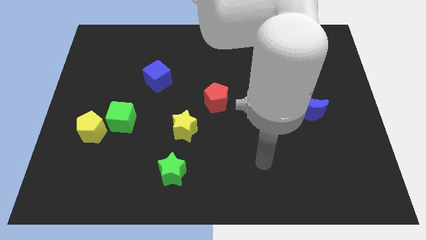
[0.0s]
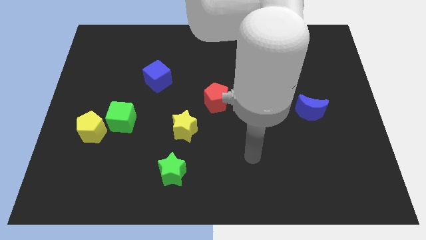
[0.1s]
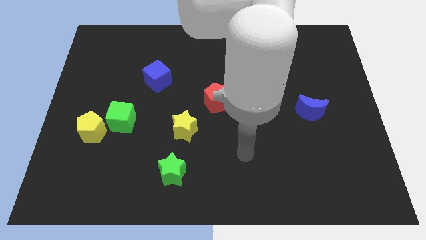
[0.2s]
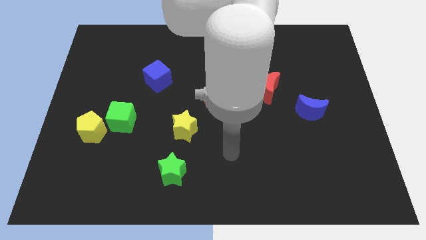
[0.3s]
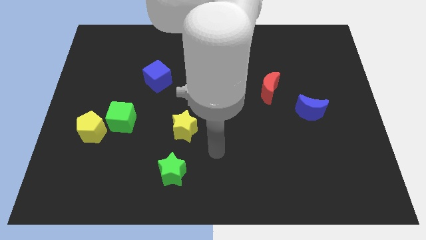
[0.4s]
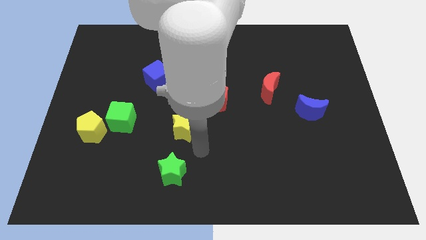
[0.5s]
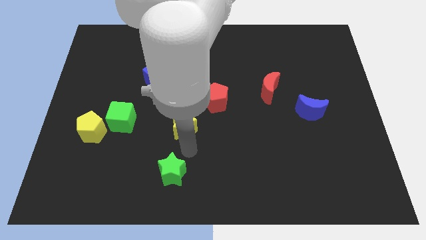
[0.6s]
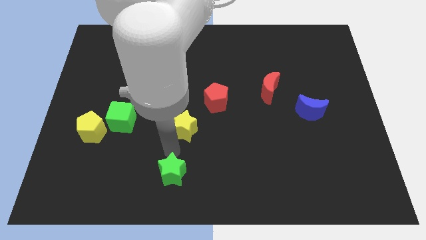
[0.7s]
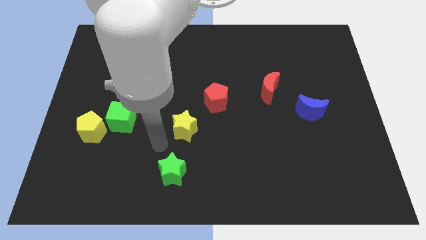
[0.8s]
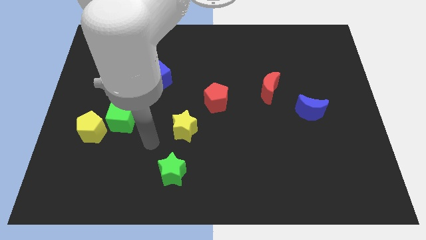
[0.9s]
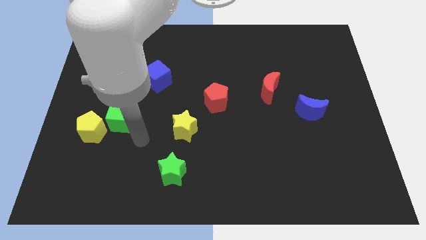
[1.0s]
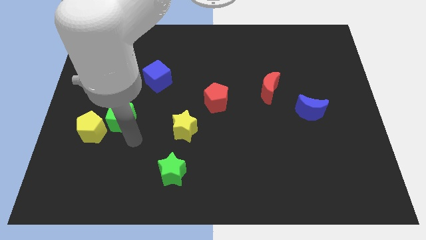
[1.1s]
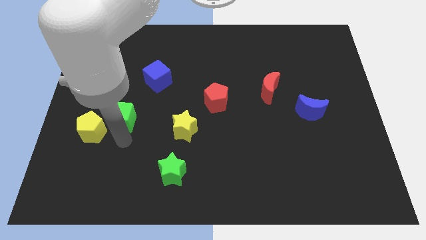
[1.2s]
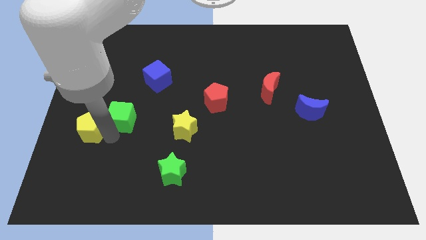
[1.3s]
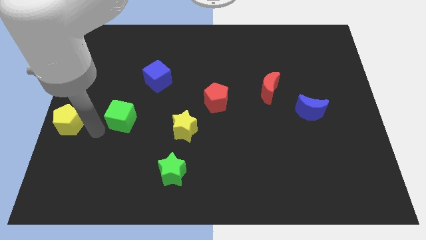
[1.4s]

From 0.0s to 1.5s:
pull the green cube apart from the yellow pentagon

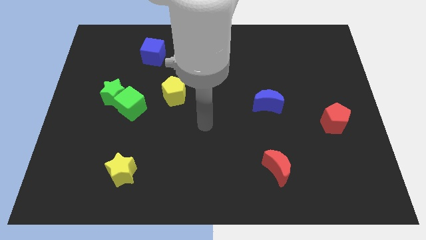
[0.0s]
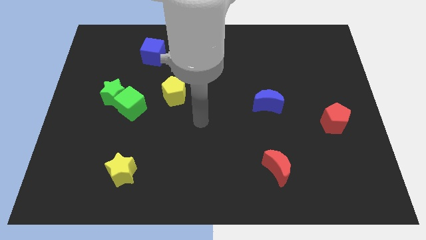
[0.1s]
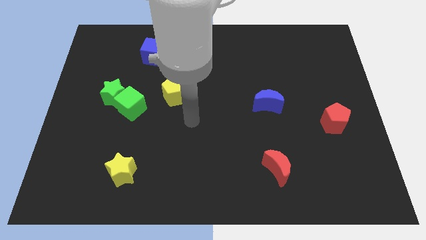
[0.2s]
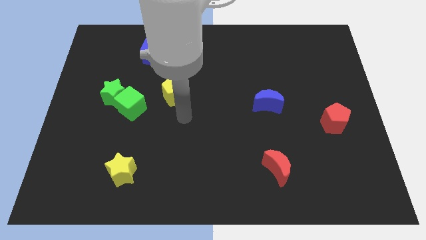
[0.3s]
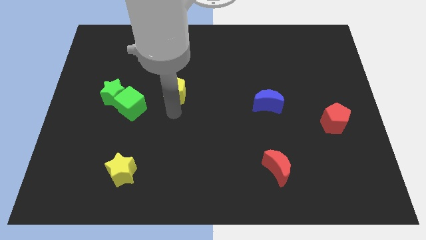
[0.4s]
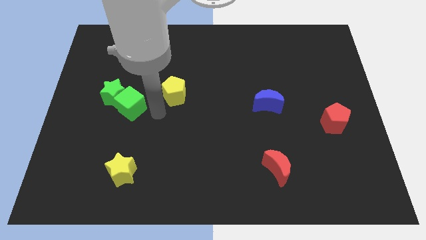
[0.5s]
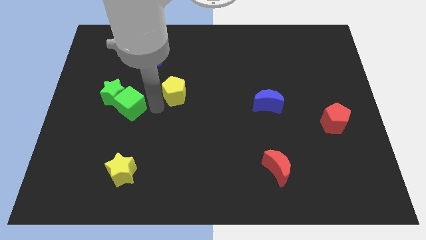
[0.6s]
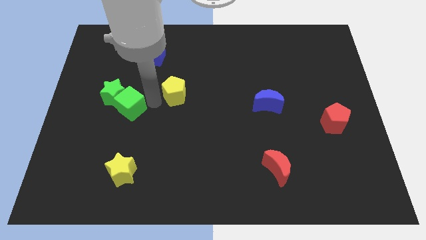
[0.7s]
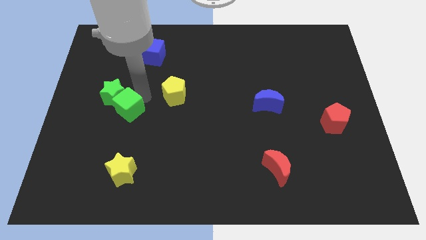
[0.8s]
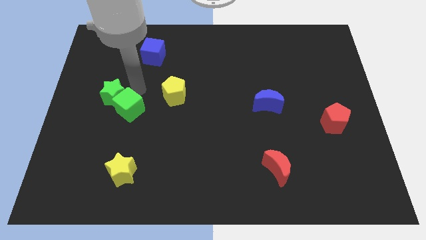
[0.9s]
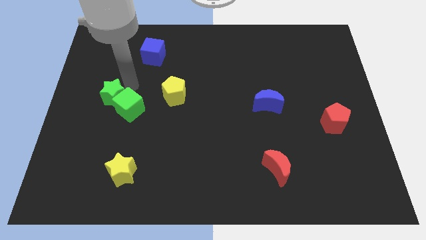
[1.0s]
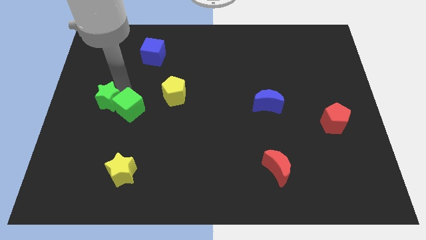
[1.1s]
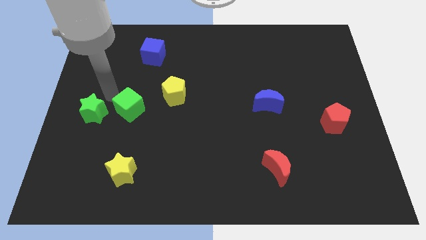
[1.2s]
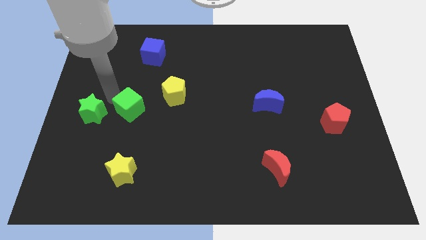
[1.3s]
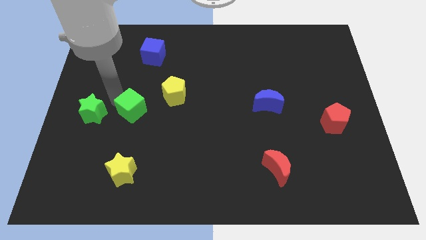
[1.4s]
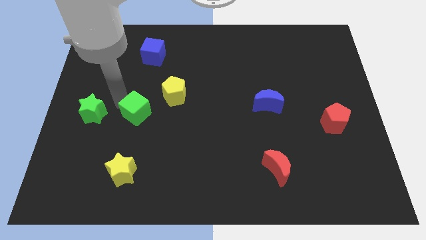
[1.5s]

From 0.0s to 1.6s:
separate the green cube from the green star

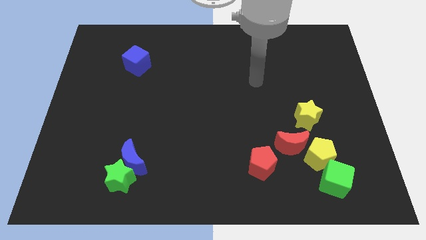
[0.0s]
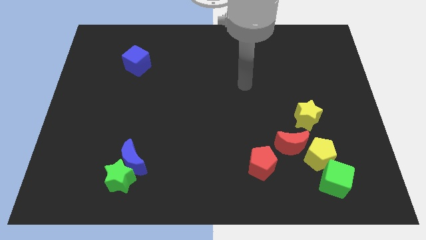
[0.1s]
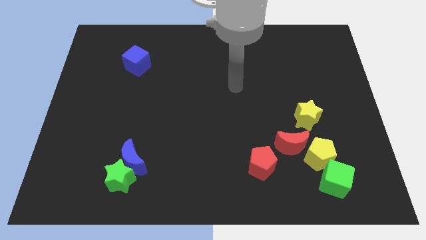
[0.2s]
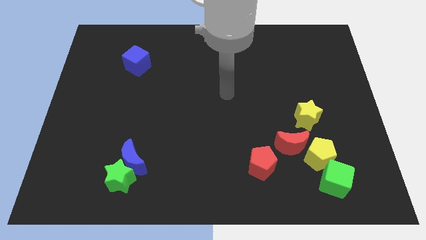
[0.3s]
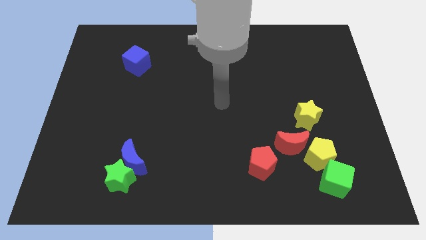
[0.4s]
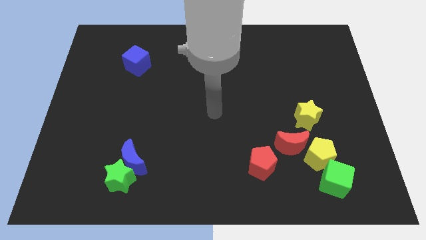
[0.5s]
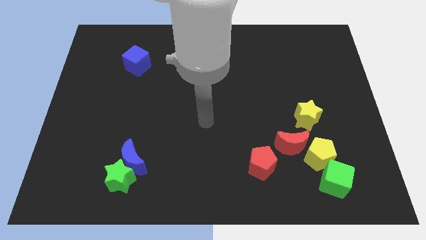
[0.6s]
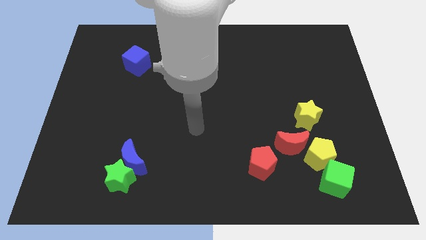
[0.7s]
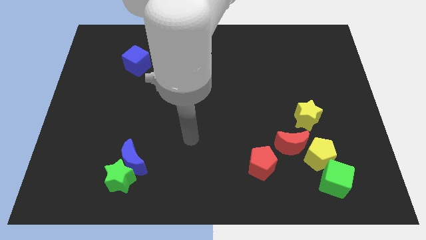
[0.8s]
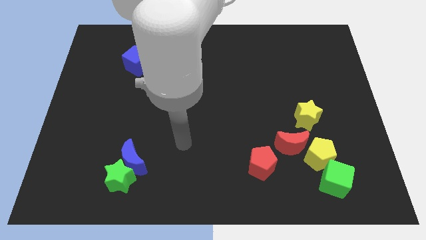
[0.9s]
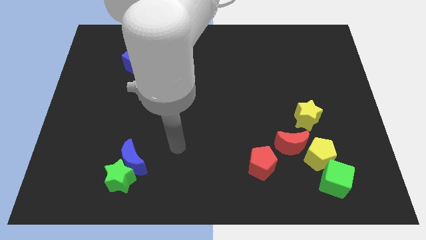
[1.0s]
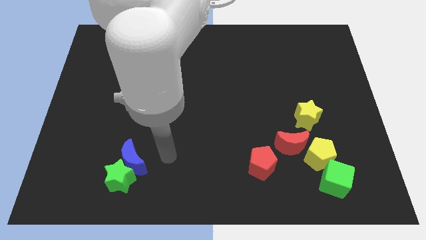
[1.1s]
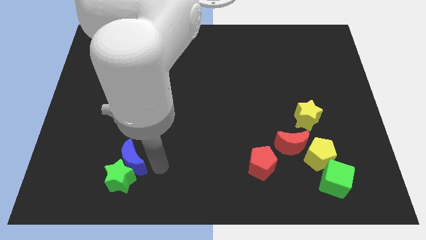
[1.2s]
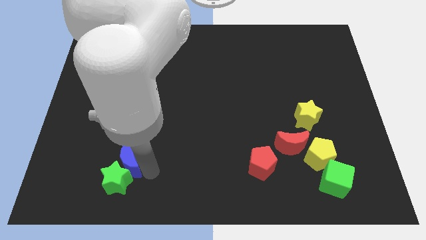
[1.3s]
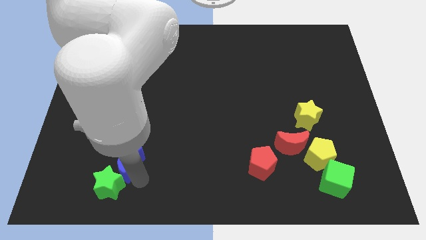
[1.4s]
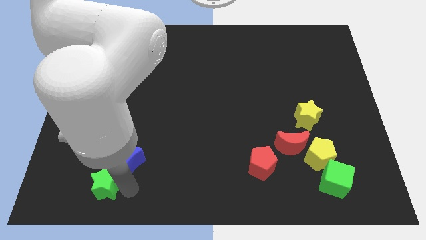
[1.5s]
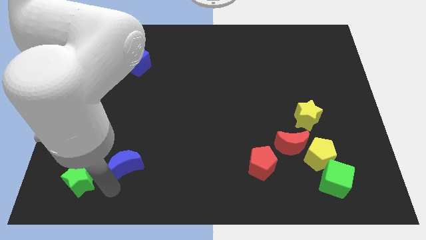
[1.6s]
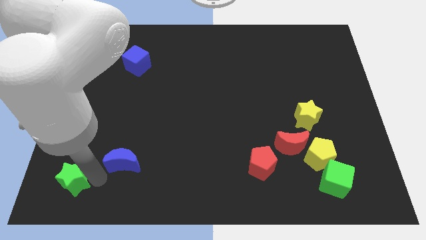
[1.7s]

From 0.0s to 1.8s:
move the blue moon away from the green star

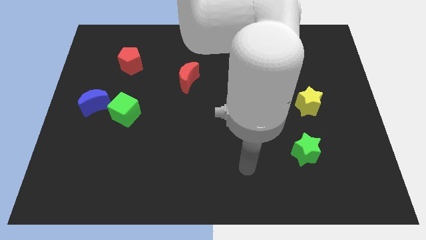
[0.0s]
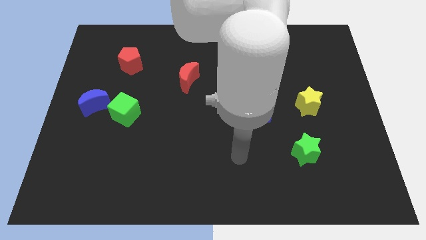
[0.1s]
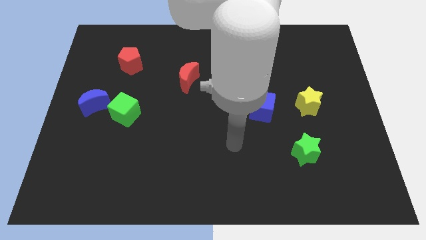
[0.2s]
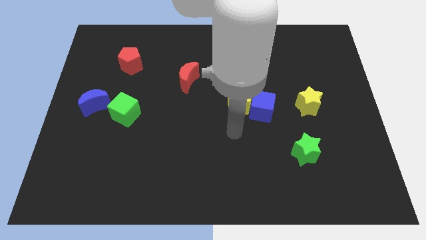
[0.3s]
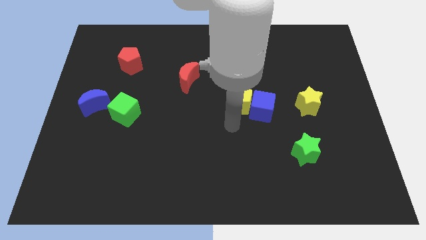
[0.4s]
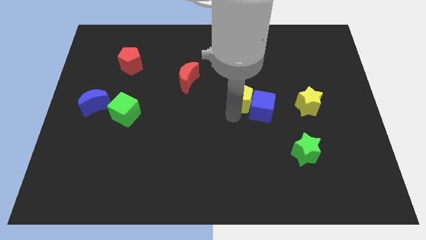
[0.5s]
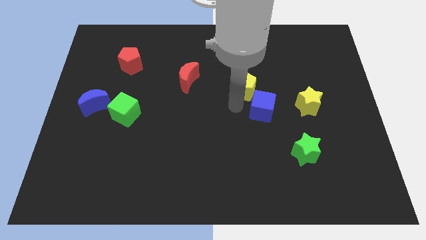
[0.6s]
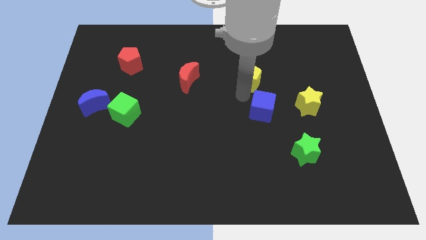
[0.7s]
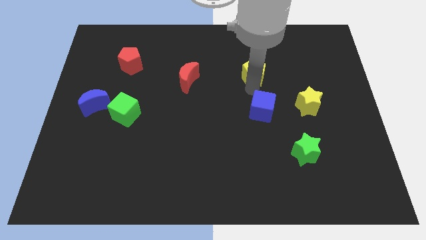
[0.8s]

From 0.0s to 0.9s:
separate the blue cube from the yellow pentagon

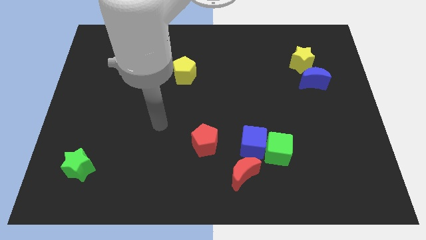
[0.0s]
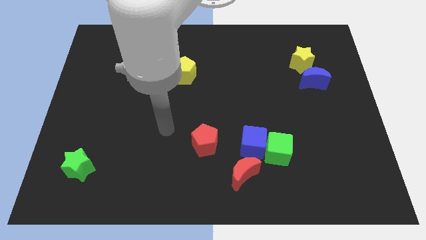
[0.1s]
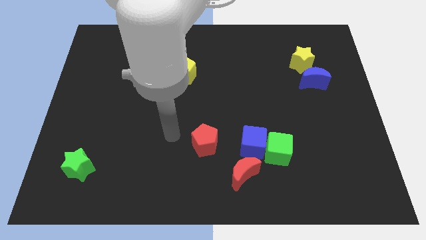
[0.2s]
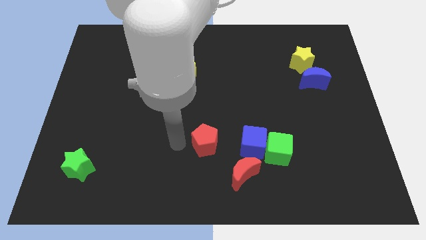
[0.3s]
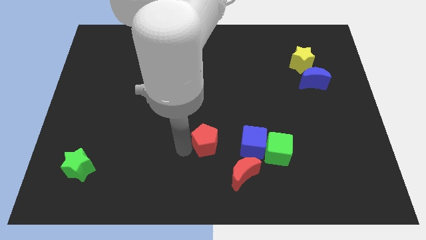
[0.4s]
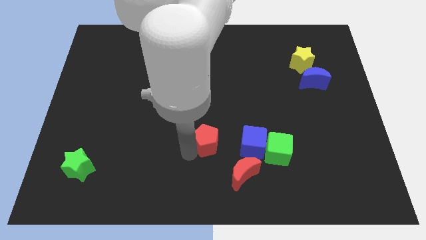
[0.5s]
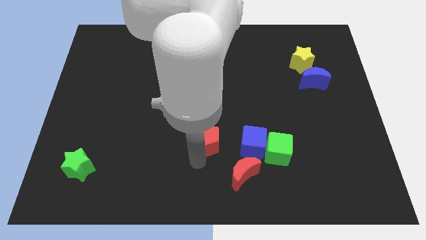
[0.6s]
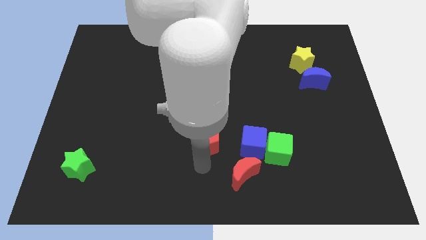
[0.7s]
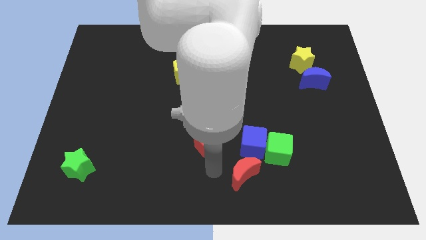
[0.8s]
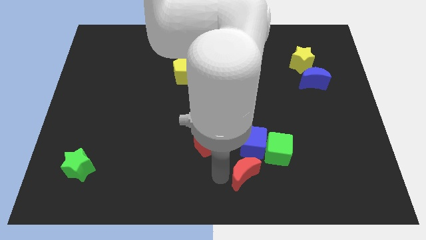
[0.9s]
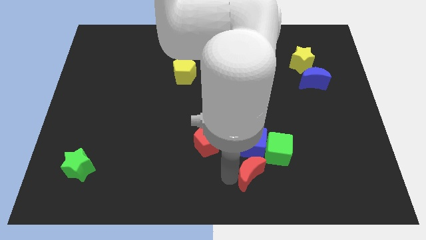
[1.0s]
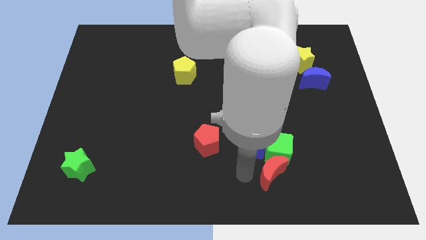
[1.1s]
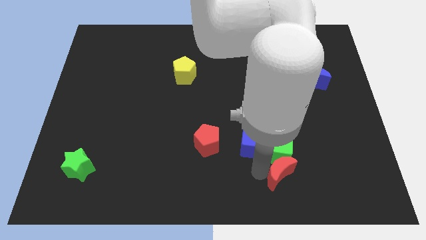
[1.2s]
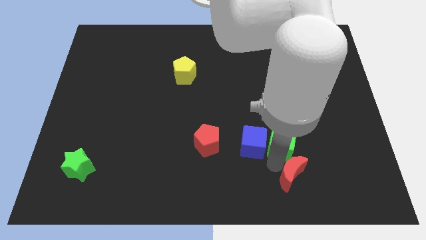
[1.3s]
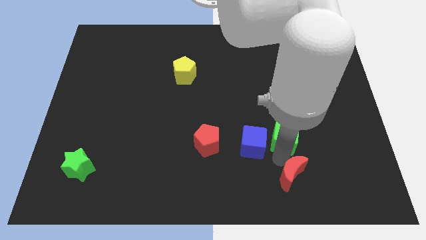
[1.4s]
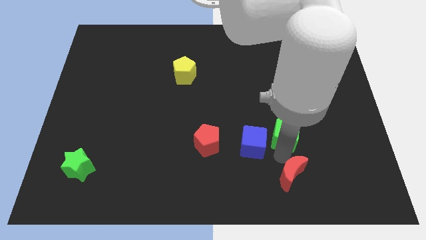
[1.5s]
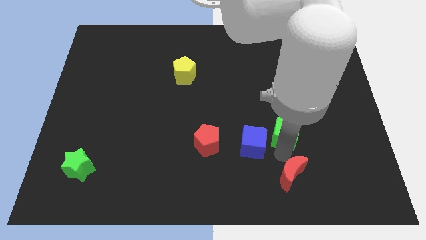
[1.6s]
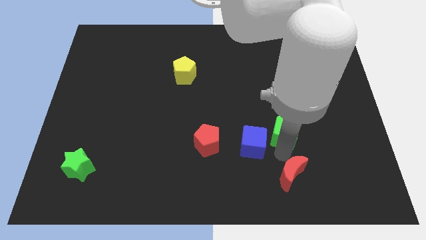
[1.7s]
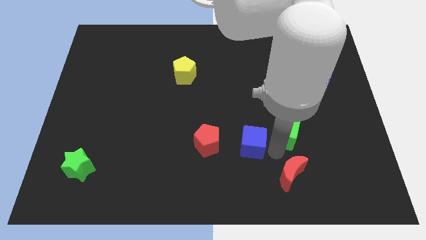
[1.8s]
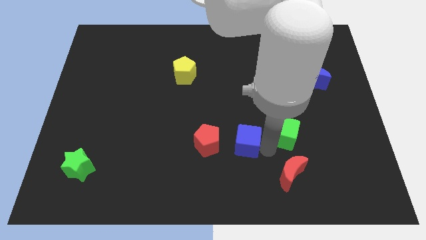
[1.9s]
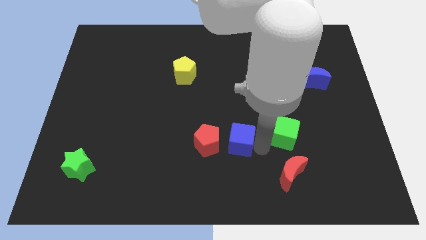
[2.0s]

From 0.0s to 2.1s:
separate the blue cube from the green cube and red moon

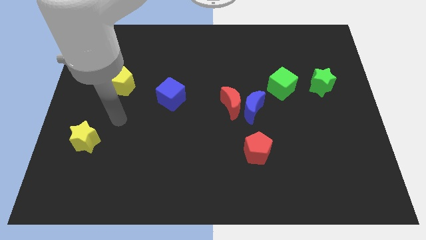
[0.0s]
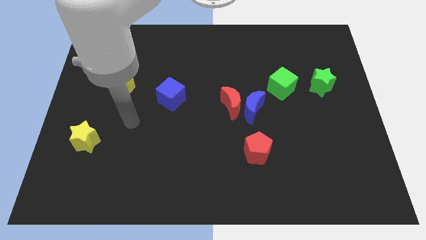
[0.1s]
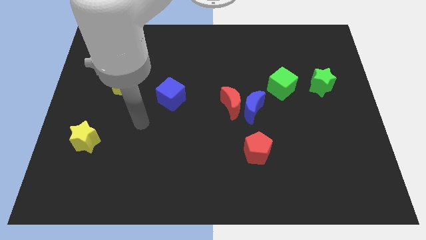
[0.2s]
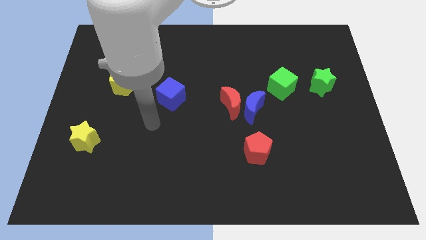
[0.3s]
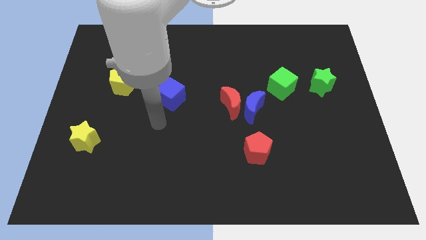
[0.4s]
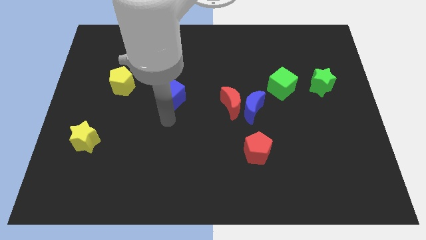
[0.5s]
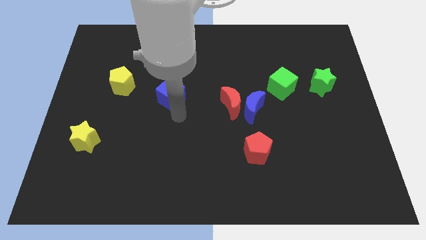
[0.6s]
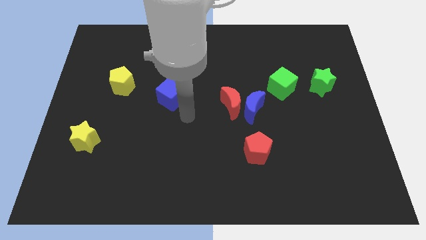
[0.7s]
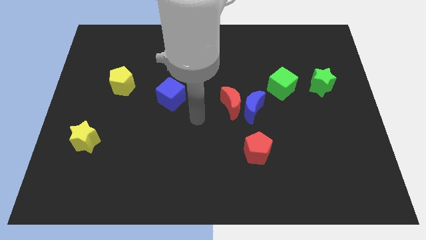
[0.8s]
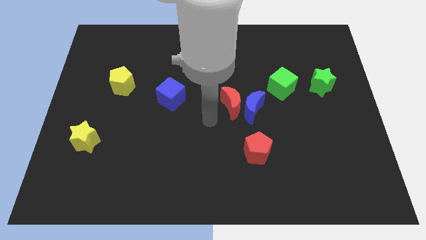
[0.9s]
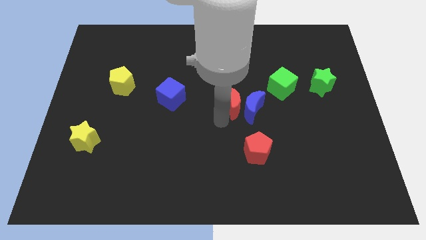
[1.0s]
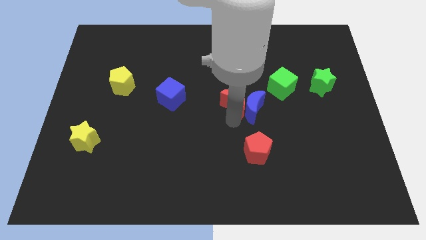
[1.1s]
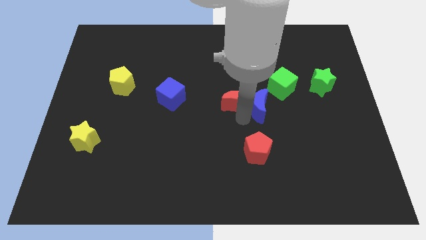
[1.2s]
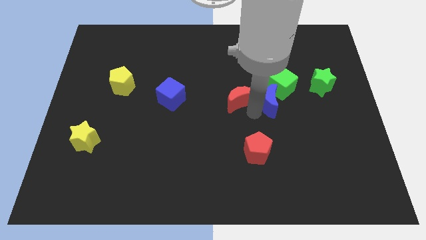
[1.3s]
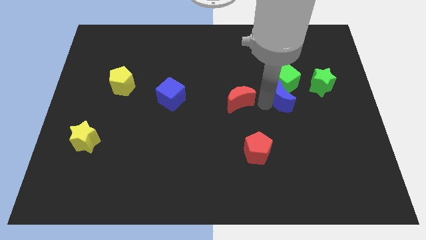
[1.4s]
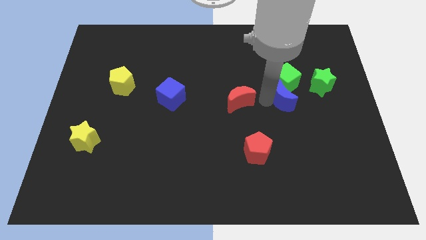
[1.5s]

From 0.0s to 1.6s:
move the red moon away from the blue moon
